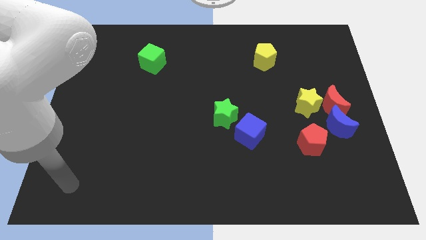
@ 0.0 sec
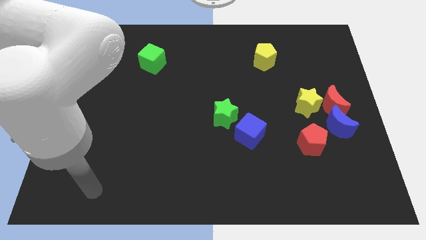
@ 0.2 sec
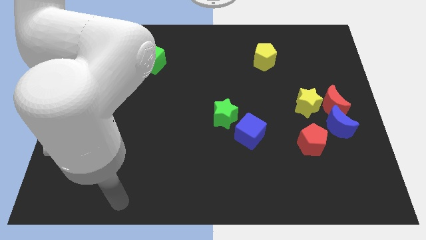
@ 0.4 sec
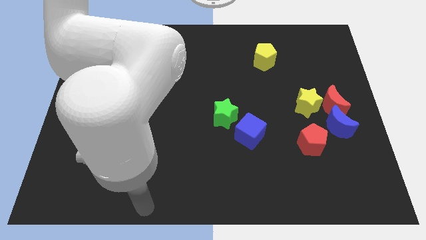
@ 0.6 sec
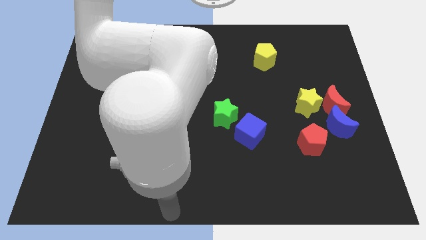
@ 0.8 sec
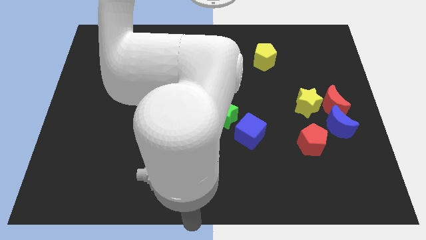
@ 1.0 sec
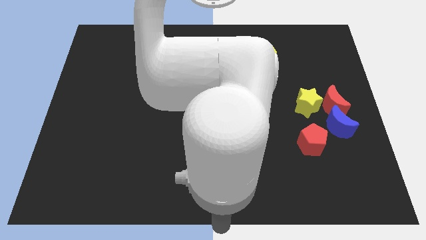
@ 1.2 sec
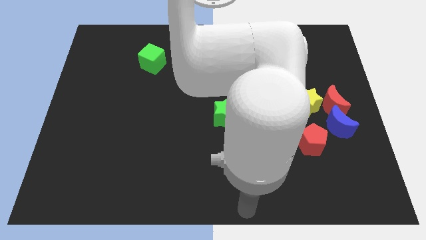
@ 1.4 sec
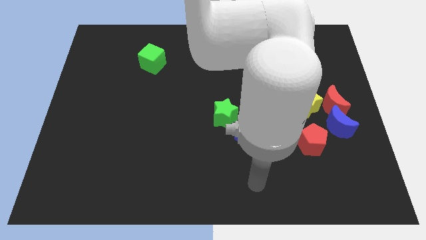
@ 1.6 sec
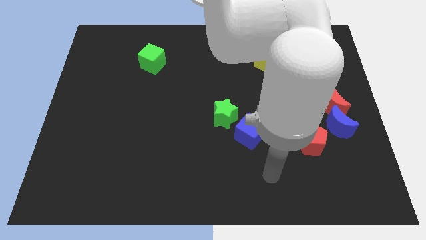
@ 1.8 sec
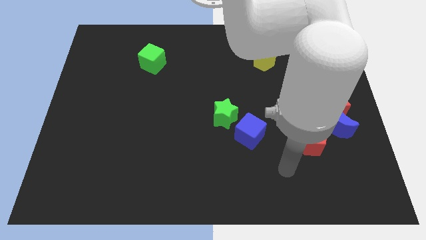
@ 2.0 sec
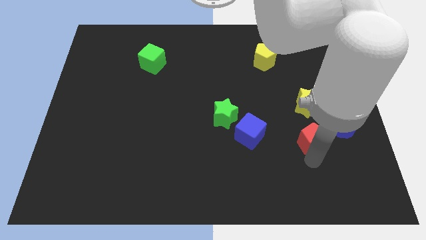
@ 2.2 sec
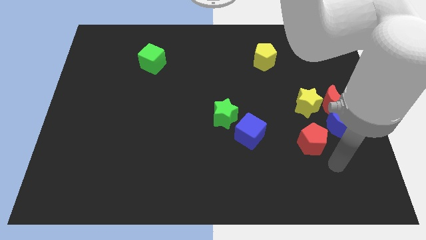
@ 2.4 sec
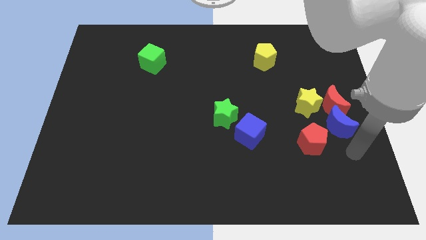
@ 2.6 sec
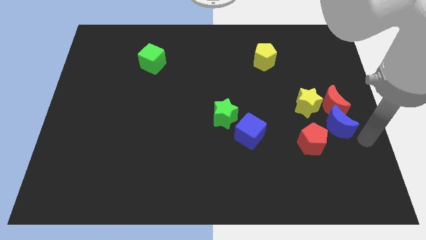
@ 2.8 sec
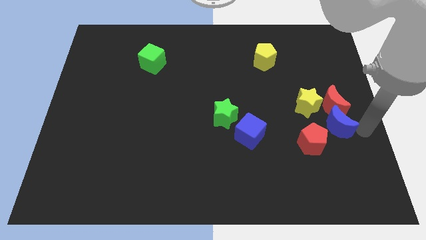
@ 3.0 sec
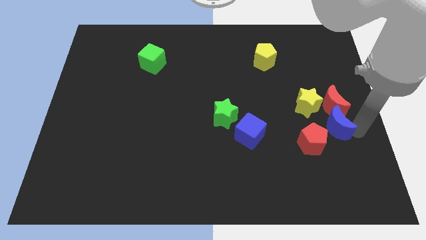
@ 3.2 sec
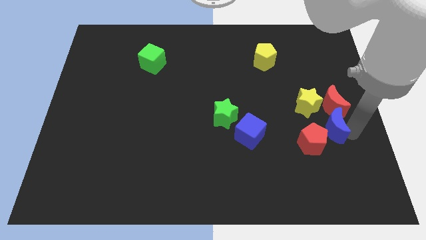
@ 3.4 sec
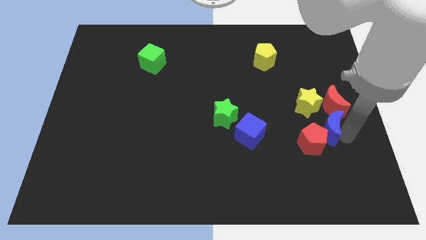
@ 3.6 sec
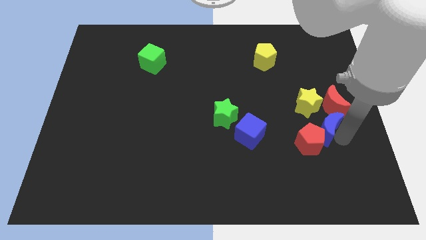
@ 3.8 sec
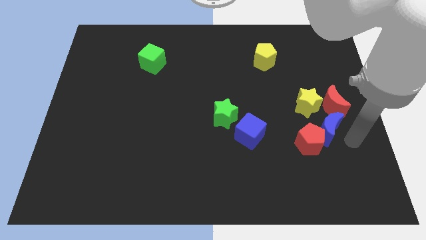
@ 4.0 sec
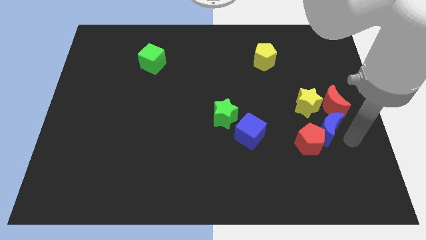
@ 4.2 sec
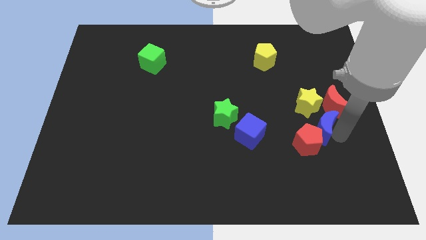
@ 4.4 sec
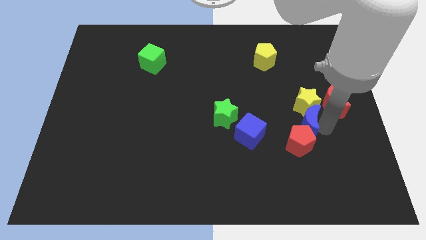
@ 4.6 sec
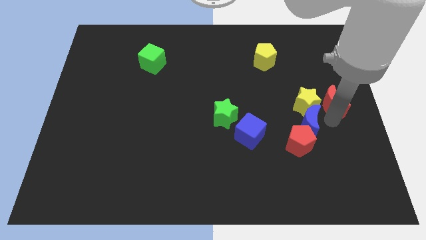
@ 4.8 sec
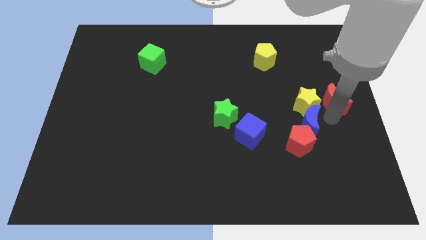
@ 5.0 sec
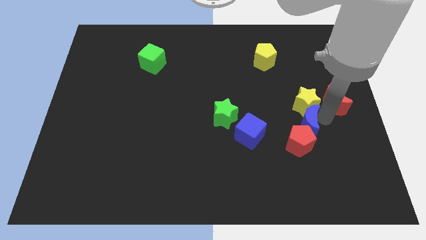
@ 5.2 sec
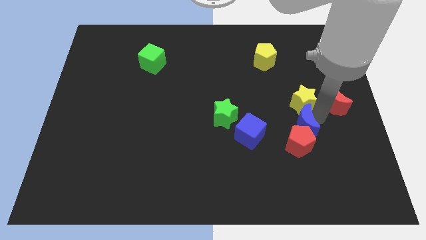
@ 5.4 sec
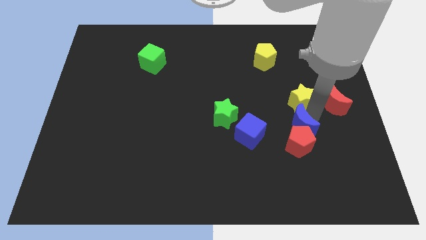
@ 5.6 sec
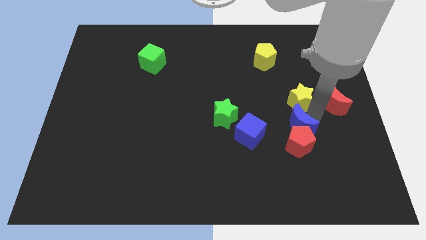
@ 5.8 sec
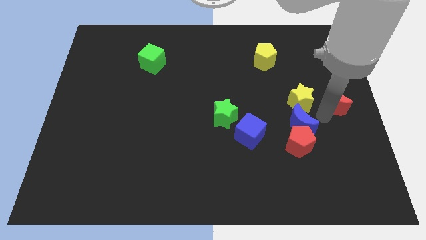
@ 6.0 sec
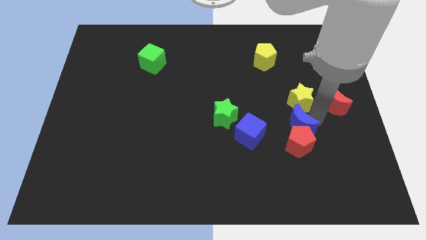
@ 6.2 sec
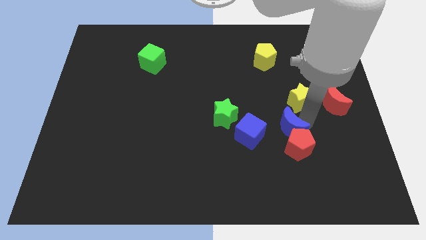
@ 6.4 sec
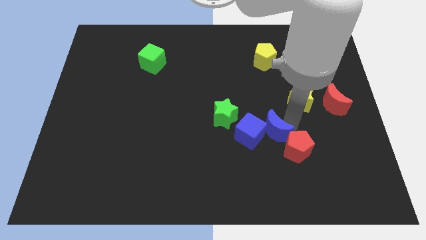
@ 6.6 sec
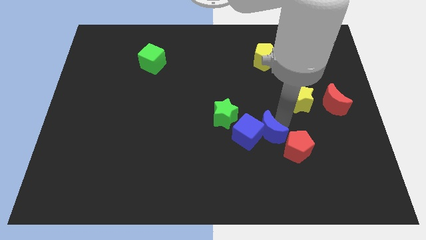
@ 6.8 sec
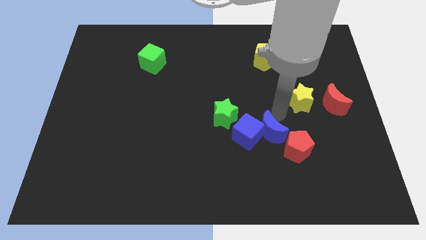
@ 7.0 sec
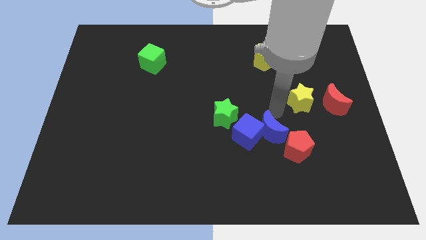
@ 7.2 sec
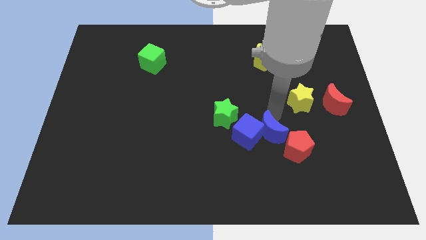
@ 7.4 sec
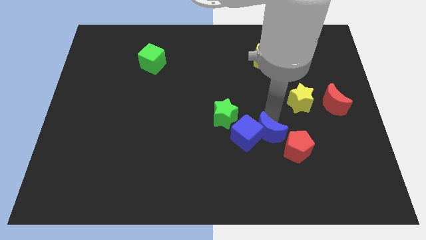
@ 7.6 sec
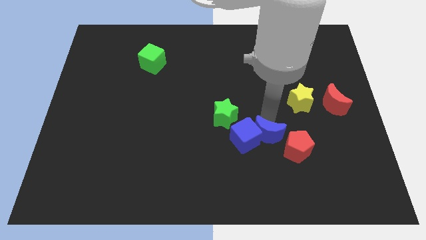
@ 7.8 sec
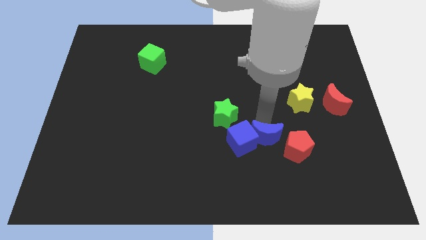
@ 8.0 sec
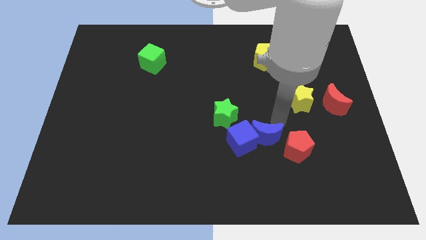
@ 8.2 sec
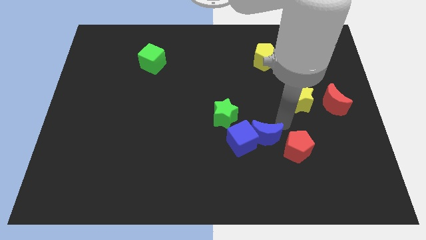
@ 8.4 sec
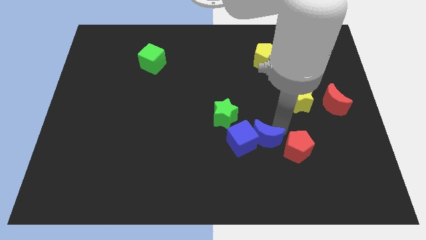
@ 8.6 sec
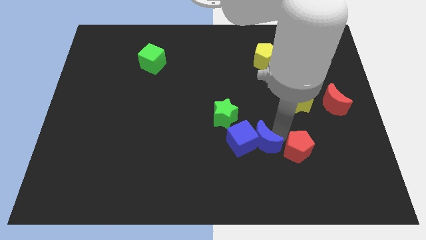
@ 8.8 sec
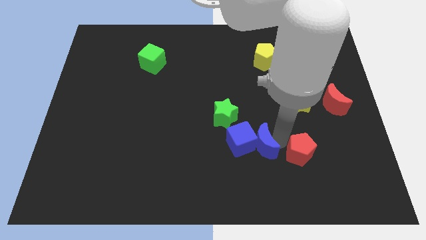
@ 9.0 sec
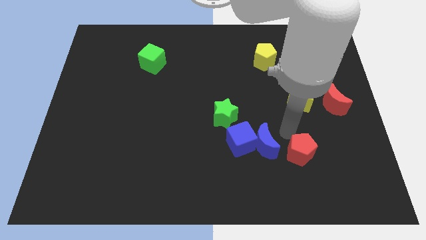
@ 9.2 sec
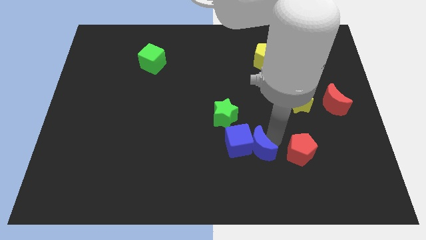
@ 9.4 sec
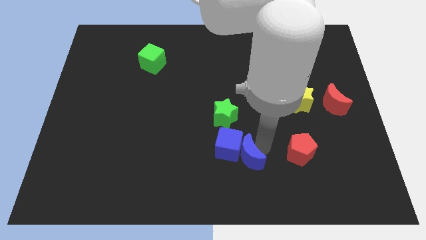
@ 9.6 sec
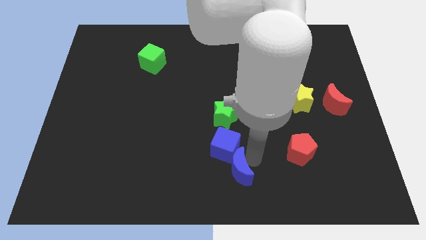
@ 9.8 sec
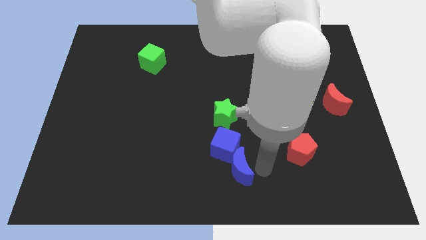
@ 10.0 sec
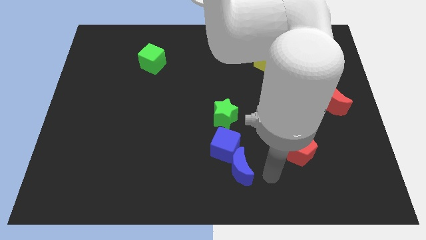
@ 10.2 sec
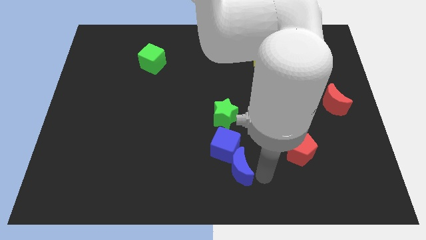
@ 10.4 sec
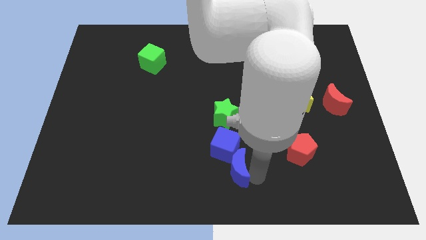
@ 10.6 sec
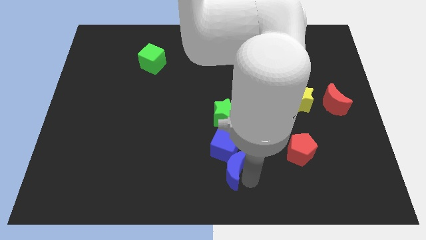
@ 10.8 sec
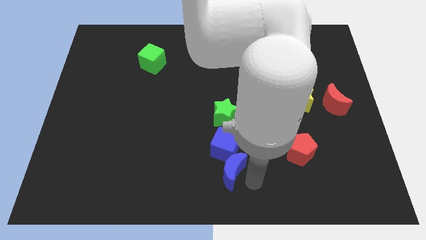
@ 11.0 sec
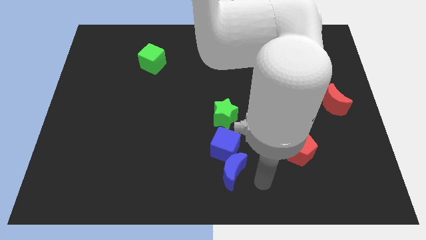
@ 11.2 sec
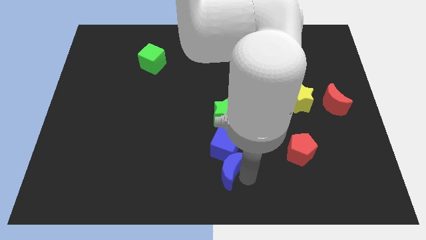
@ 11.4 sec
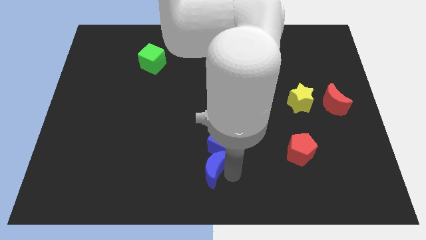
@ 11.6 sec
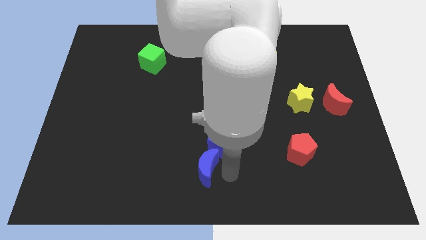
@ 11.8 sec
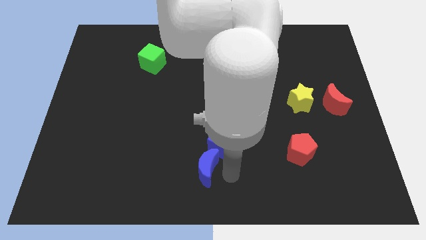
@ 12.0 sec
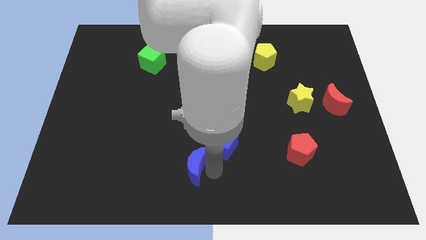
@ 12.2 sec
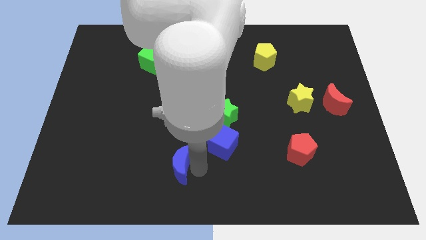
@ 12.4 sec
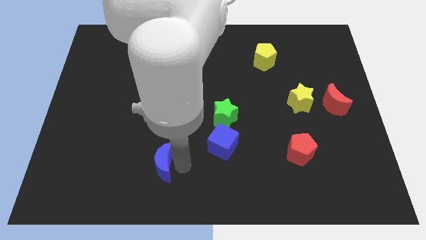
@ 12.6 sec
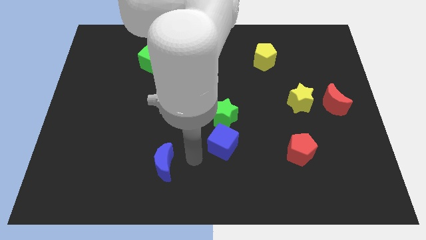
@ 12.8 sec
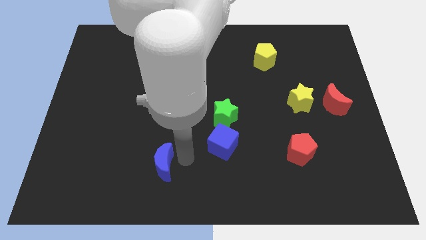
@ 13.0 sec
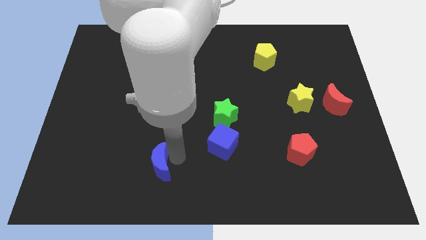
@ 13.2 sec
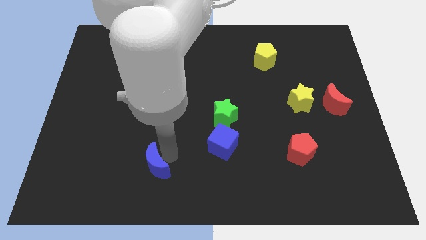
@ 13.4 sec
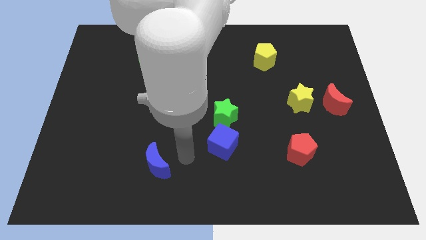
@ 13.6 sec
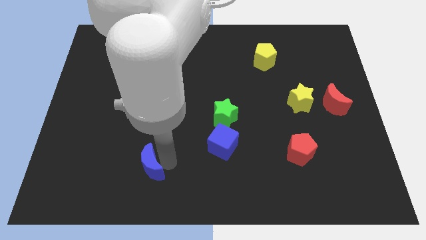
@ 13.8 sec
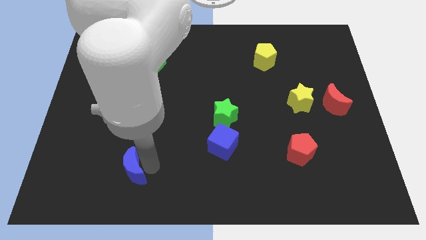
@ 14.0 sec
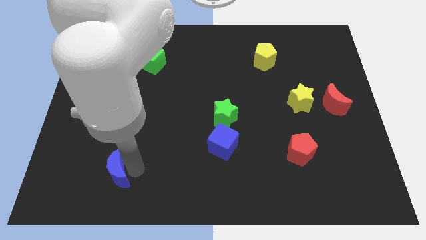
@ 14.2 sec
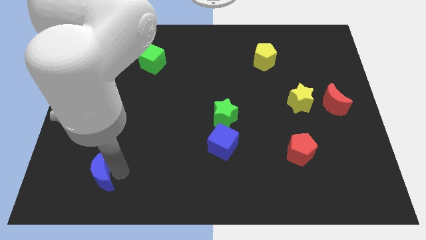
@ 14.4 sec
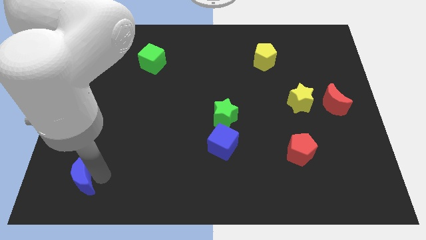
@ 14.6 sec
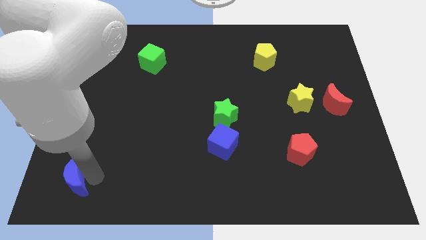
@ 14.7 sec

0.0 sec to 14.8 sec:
push the blue moon to the bottom left of the board
